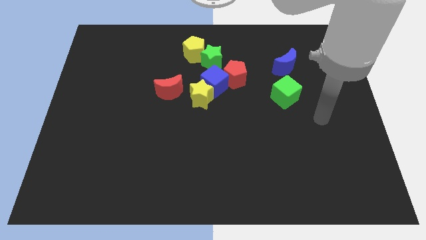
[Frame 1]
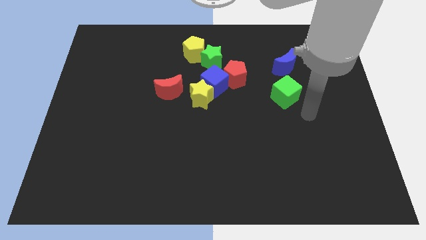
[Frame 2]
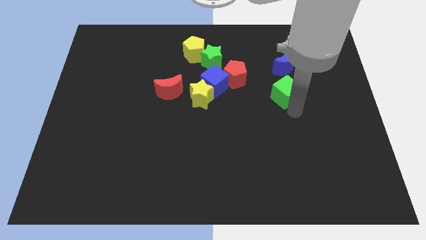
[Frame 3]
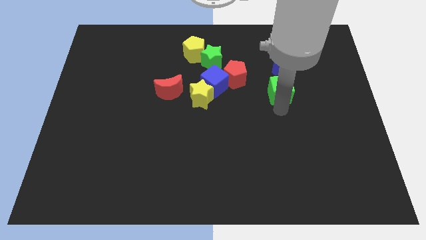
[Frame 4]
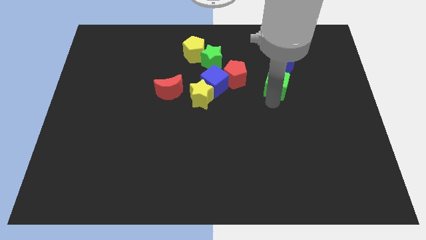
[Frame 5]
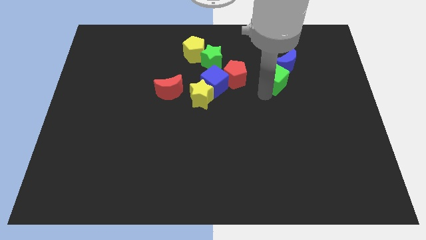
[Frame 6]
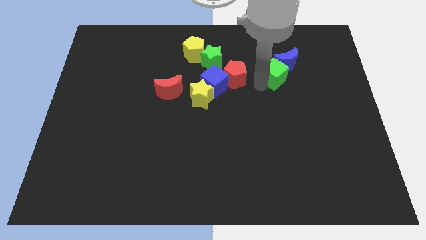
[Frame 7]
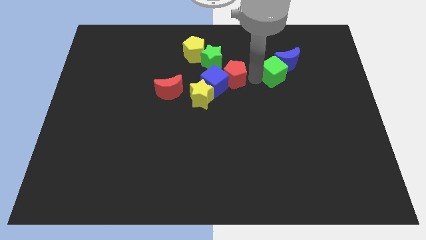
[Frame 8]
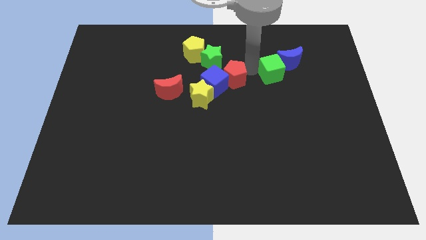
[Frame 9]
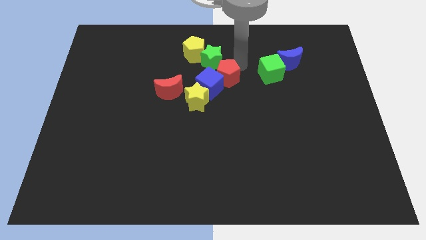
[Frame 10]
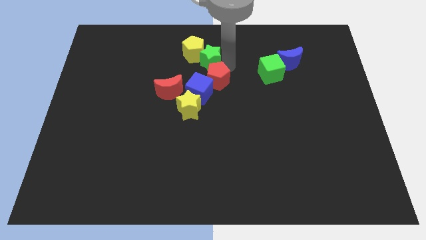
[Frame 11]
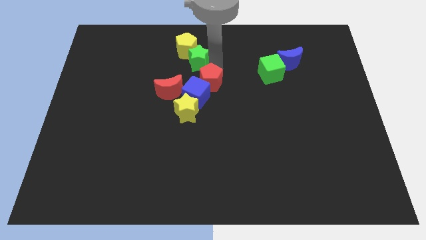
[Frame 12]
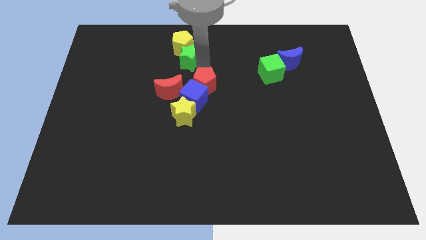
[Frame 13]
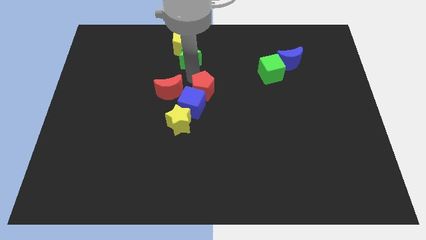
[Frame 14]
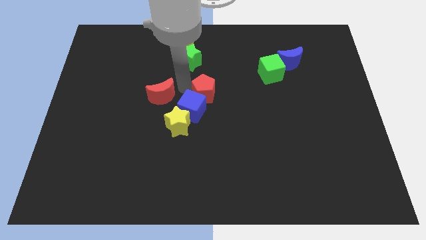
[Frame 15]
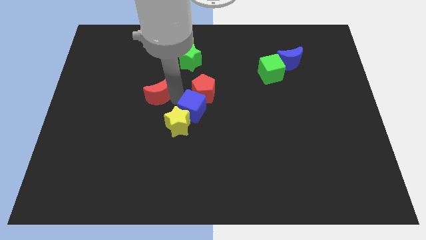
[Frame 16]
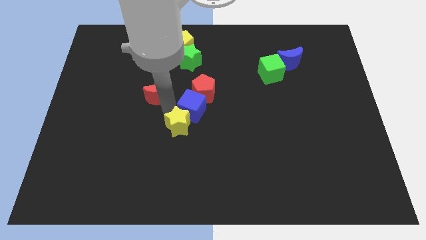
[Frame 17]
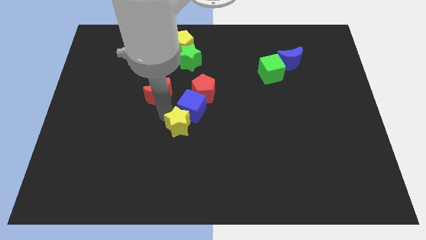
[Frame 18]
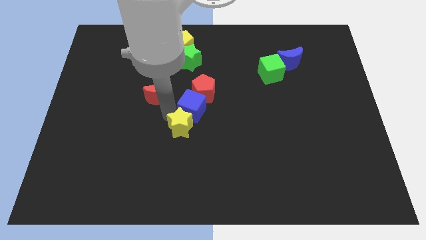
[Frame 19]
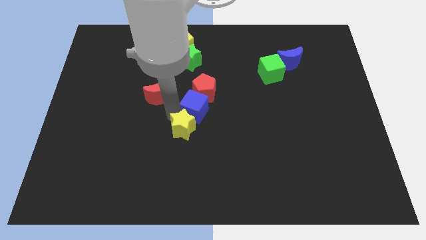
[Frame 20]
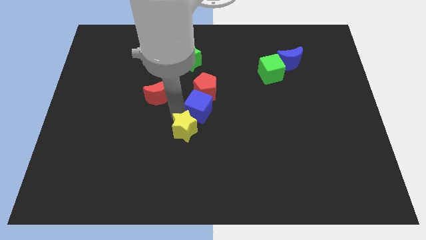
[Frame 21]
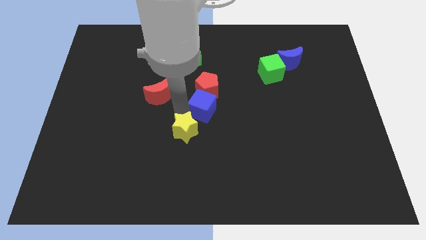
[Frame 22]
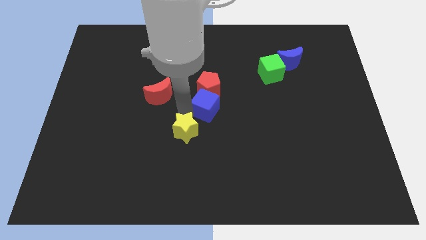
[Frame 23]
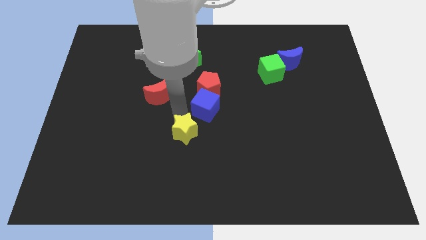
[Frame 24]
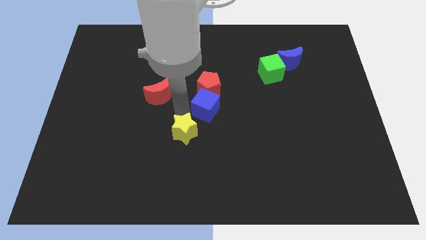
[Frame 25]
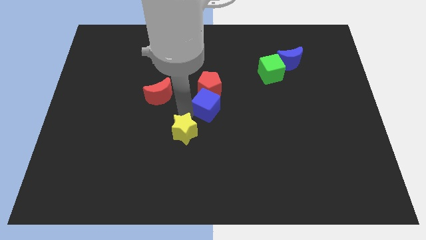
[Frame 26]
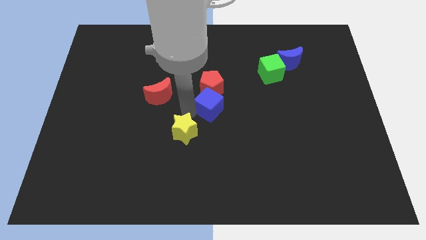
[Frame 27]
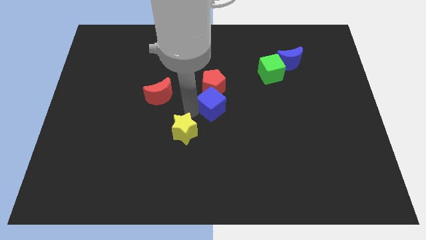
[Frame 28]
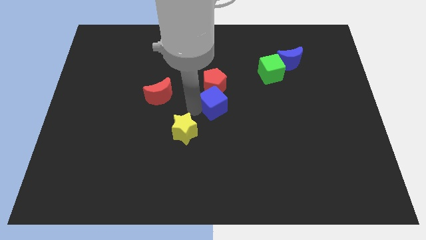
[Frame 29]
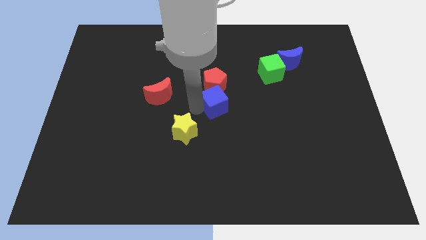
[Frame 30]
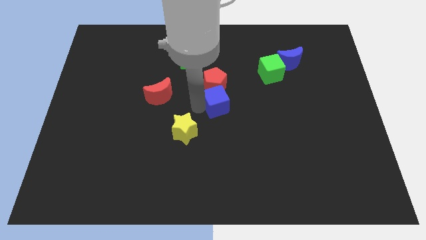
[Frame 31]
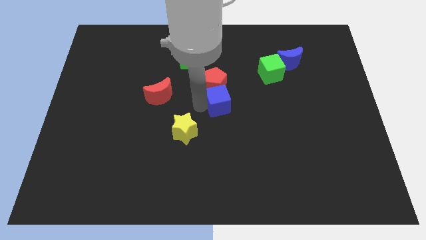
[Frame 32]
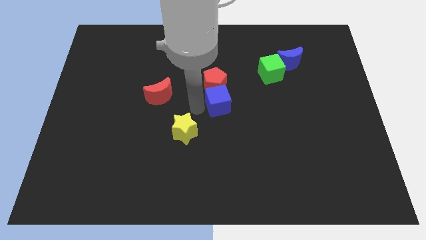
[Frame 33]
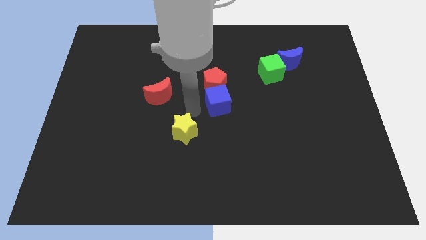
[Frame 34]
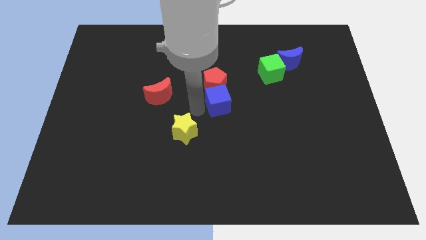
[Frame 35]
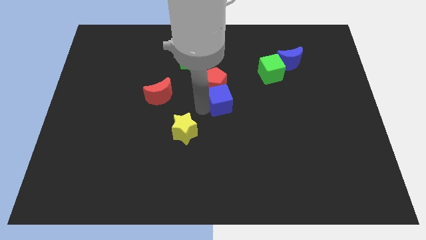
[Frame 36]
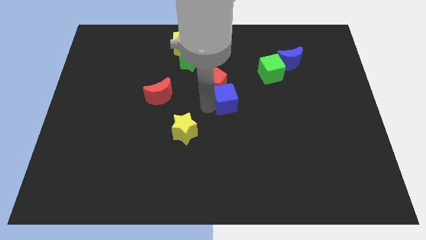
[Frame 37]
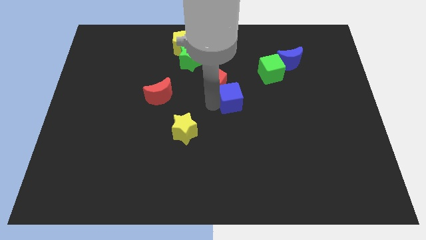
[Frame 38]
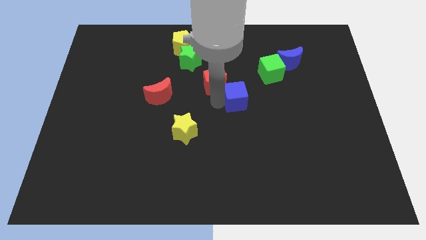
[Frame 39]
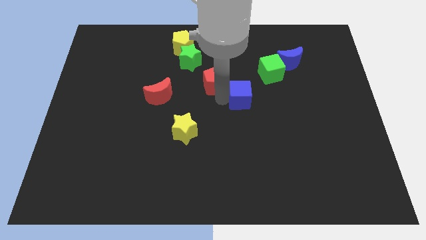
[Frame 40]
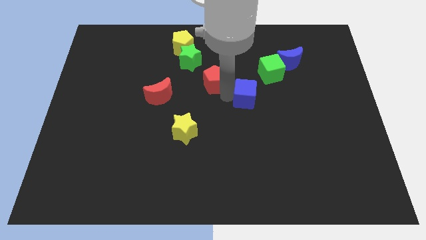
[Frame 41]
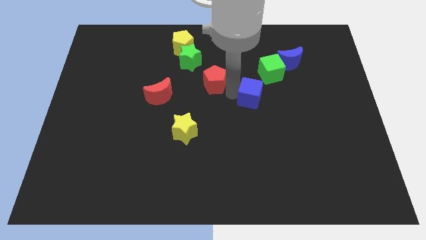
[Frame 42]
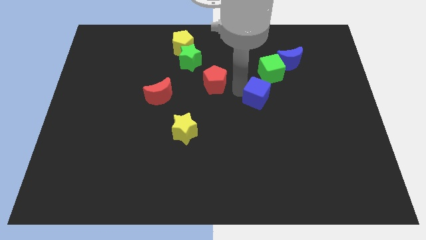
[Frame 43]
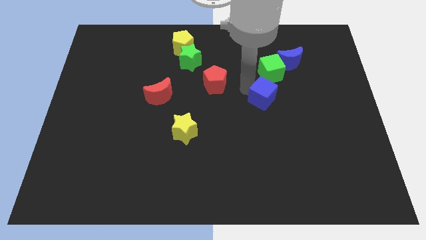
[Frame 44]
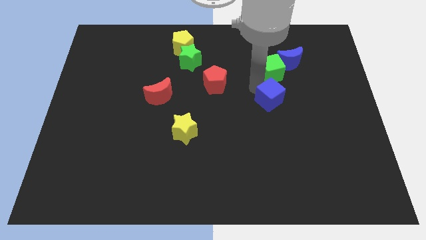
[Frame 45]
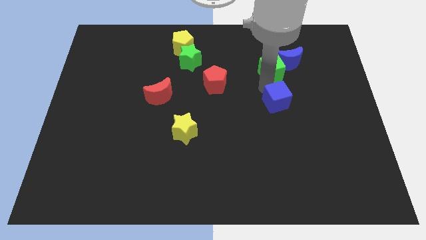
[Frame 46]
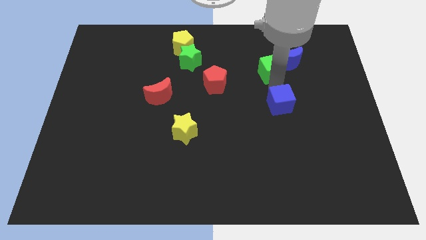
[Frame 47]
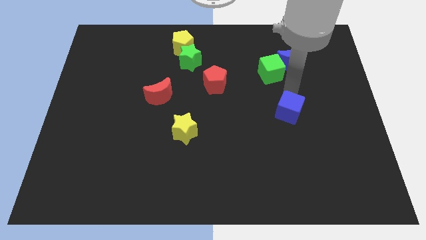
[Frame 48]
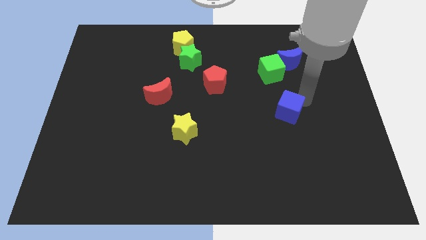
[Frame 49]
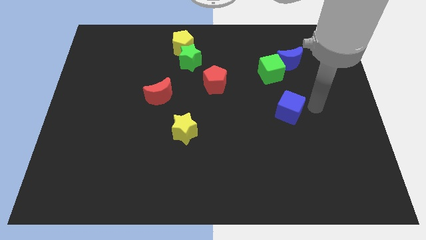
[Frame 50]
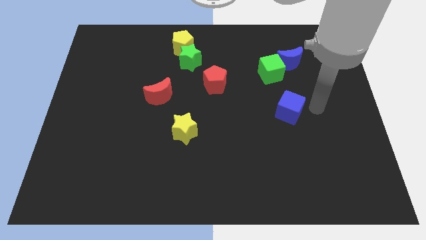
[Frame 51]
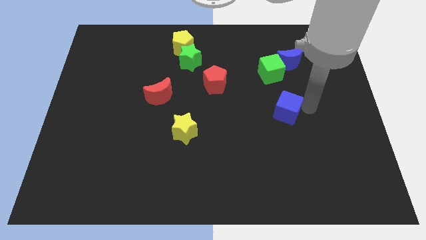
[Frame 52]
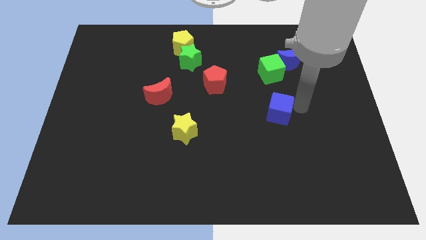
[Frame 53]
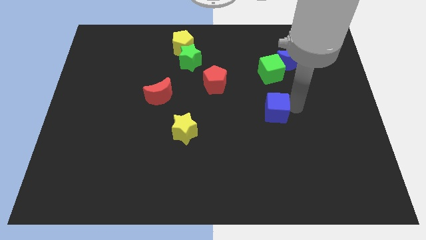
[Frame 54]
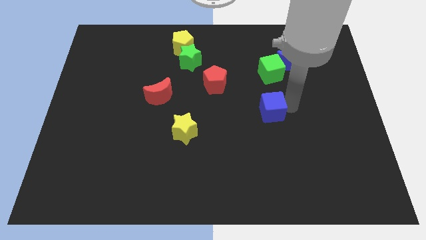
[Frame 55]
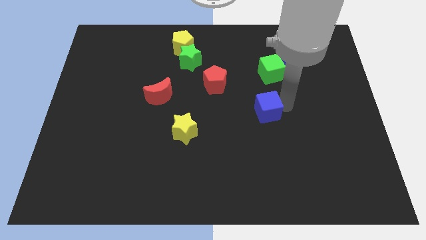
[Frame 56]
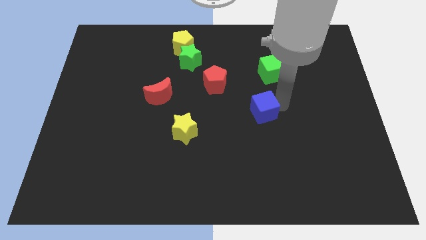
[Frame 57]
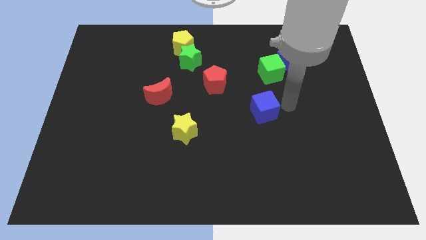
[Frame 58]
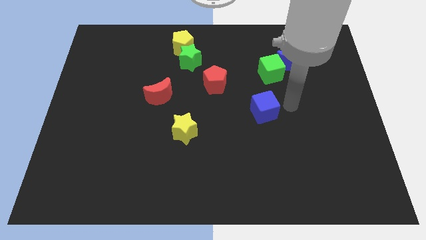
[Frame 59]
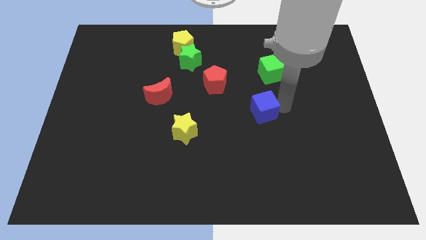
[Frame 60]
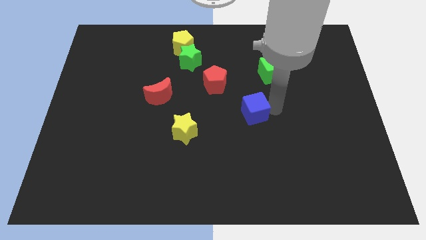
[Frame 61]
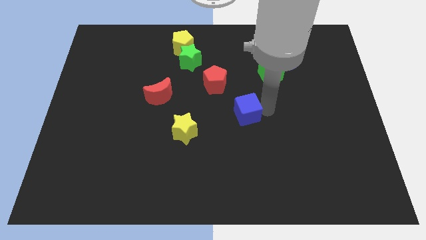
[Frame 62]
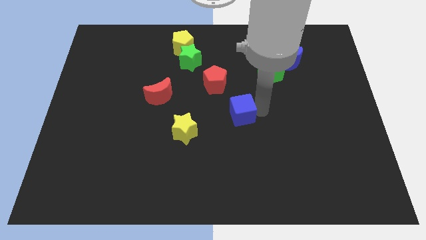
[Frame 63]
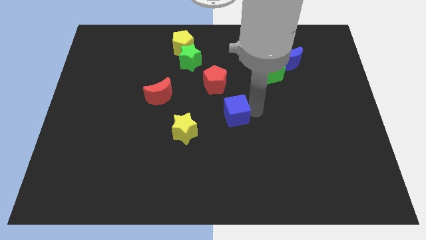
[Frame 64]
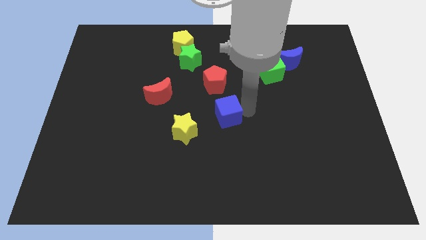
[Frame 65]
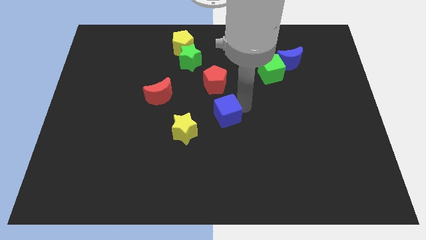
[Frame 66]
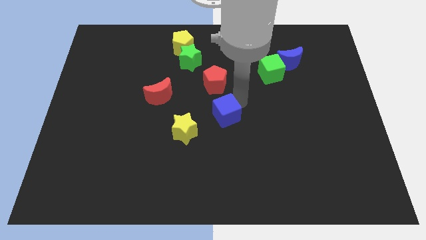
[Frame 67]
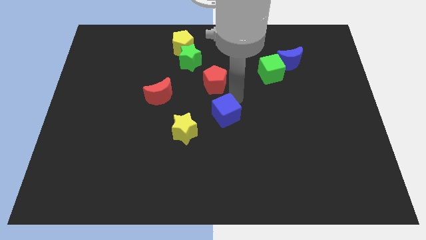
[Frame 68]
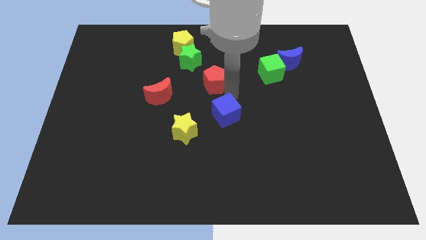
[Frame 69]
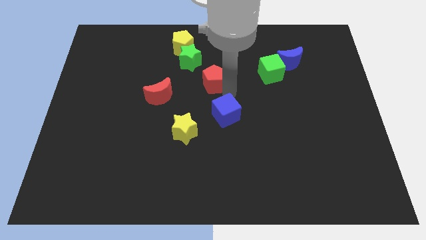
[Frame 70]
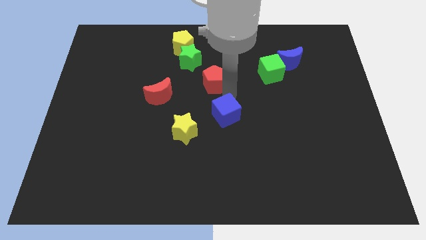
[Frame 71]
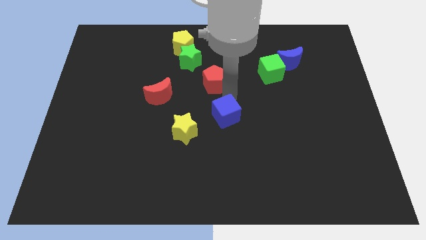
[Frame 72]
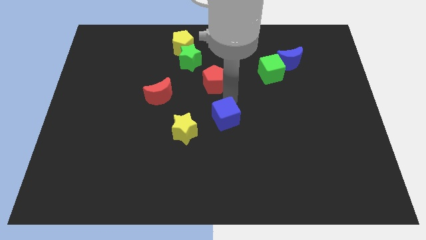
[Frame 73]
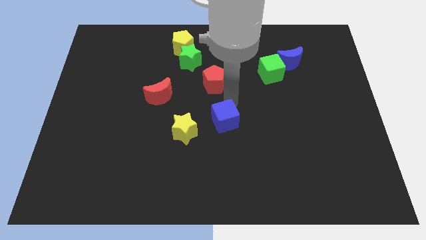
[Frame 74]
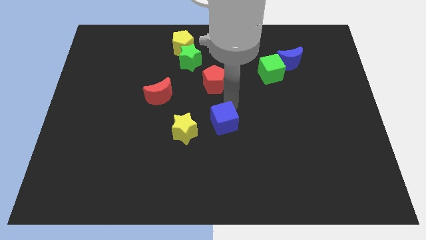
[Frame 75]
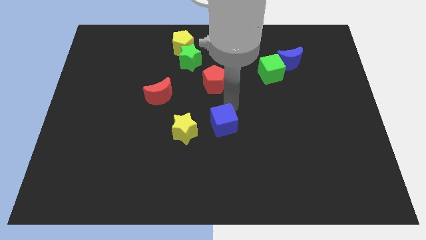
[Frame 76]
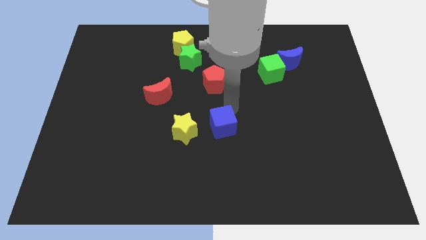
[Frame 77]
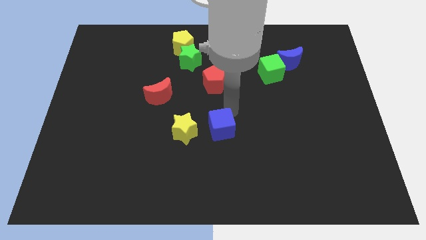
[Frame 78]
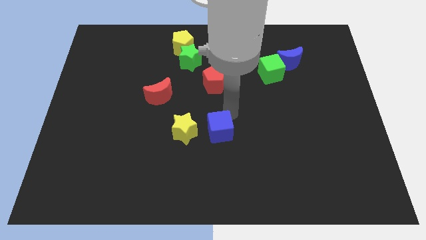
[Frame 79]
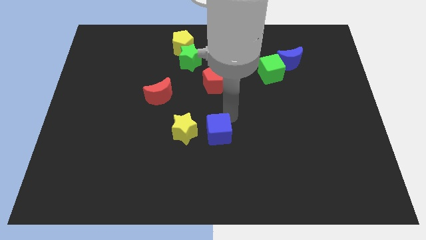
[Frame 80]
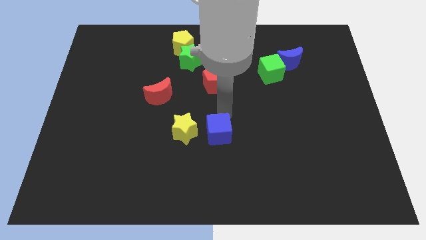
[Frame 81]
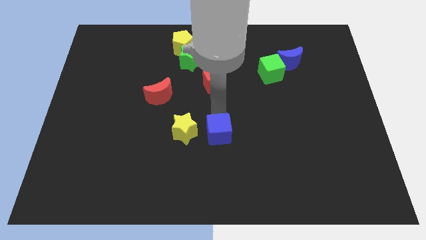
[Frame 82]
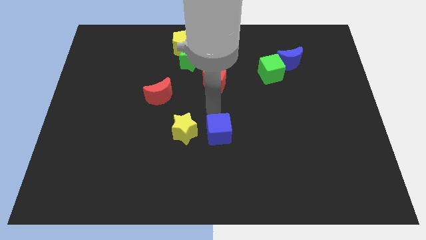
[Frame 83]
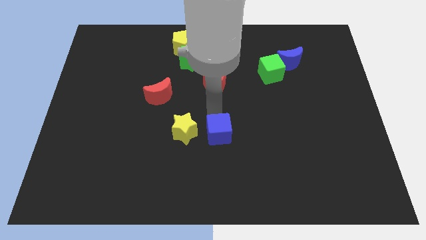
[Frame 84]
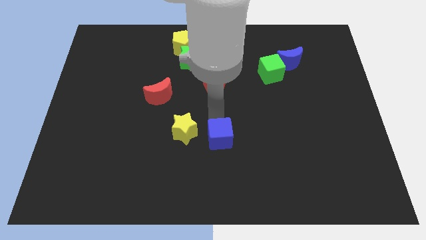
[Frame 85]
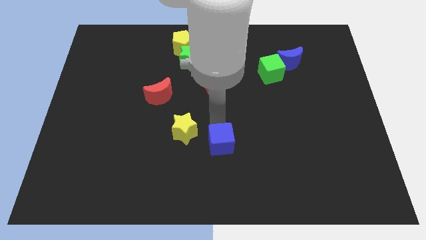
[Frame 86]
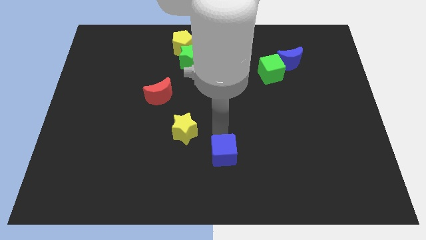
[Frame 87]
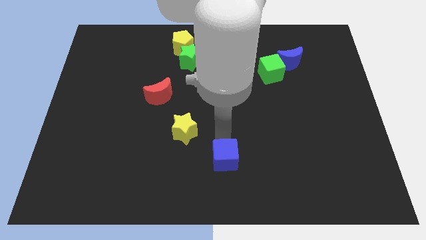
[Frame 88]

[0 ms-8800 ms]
put the blue cube to the bottom
